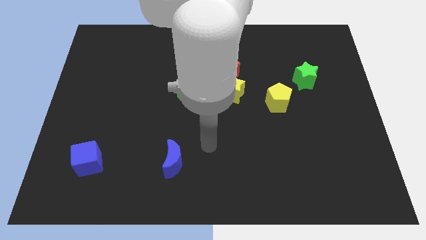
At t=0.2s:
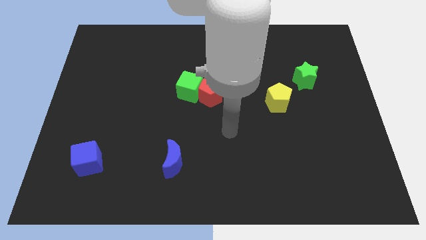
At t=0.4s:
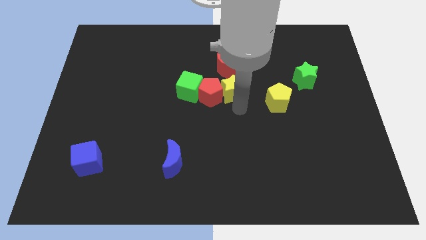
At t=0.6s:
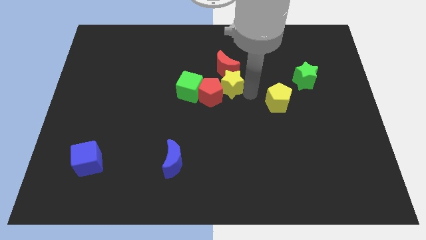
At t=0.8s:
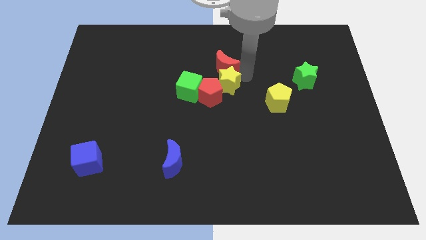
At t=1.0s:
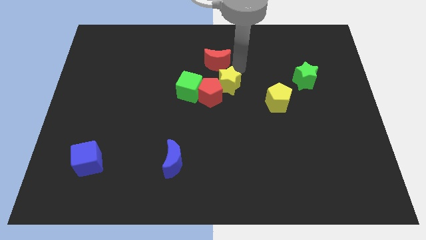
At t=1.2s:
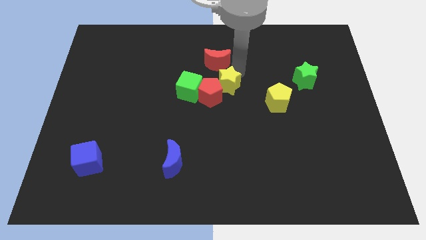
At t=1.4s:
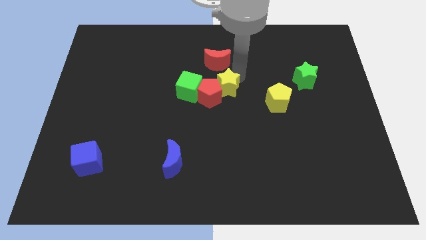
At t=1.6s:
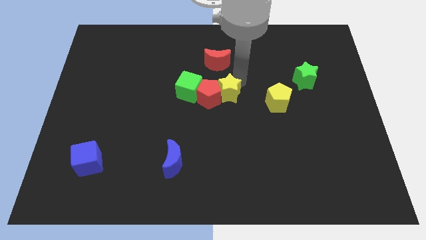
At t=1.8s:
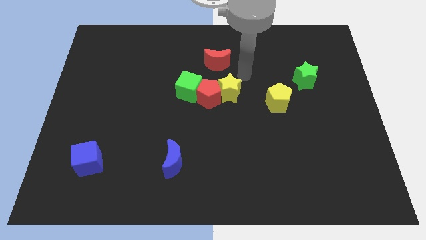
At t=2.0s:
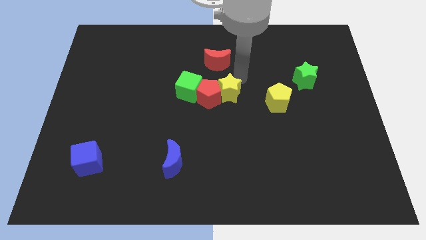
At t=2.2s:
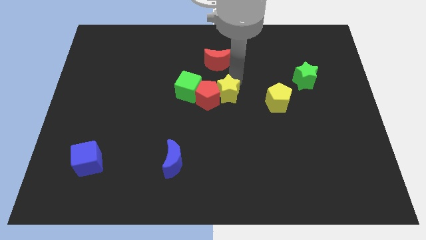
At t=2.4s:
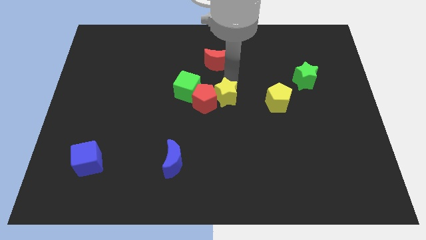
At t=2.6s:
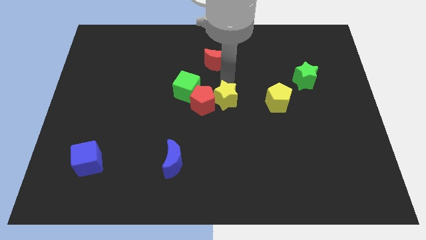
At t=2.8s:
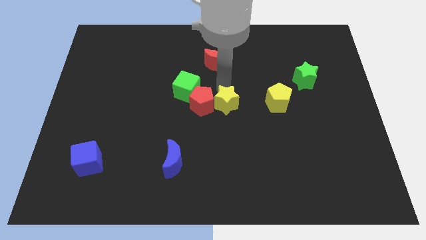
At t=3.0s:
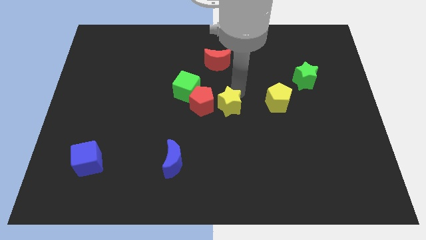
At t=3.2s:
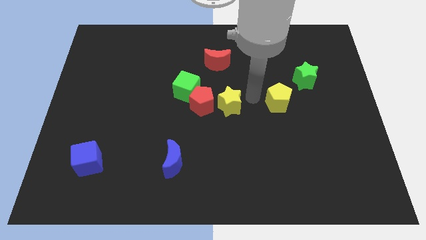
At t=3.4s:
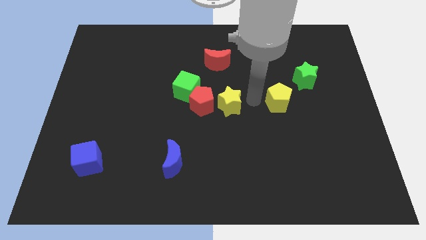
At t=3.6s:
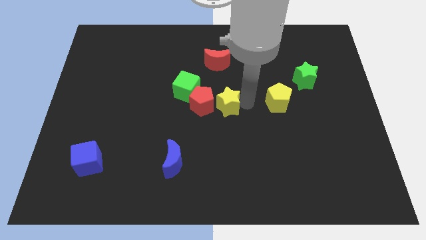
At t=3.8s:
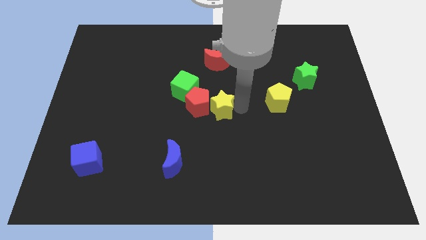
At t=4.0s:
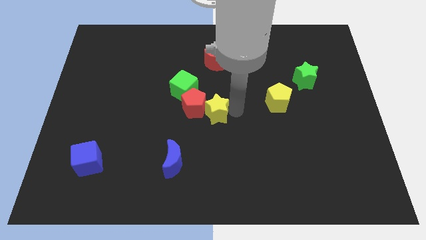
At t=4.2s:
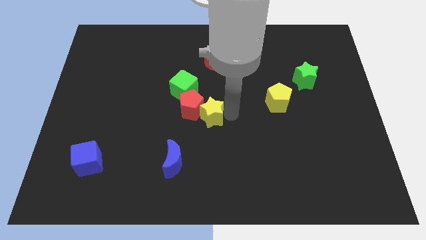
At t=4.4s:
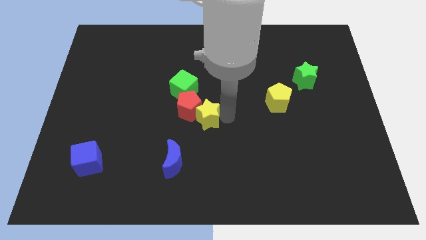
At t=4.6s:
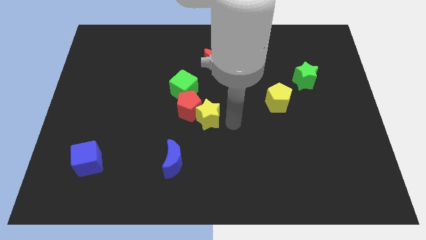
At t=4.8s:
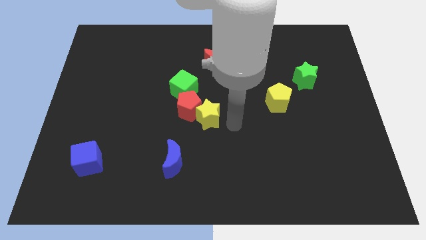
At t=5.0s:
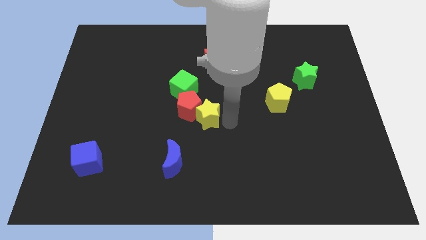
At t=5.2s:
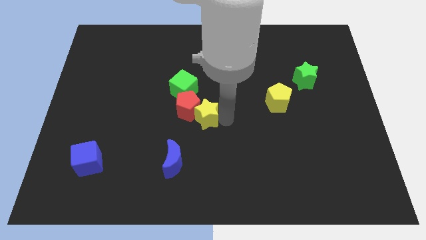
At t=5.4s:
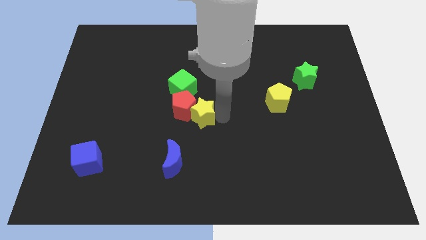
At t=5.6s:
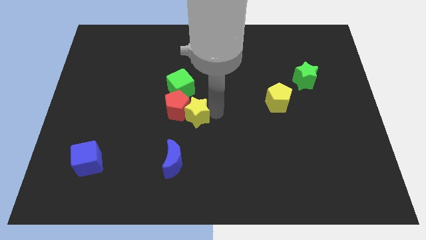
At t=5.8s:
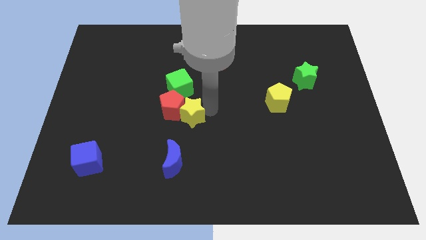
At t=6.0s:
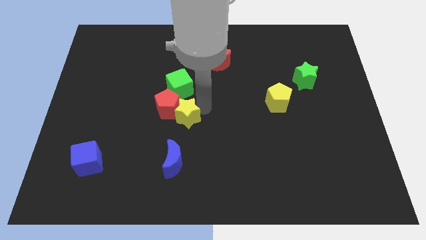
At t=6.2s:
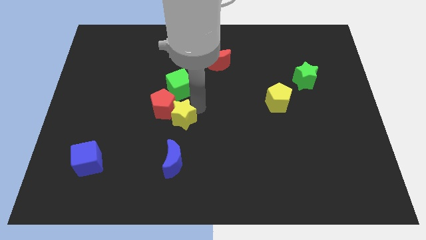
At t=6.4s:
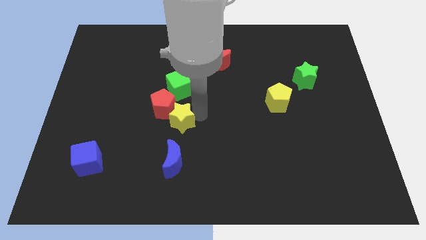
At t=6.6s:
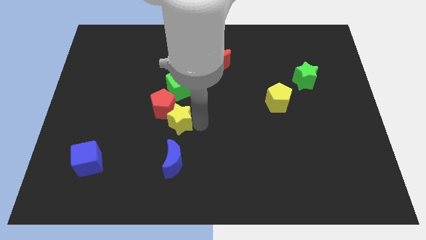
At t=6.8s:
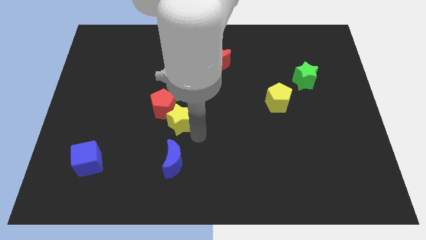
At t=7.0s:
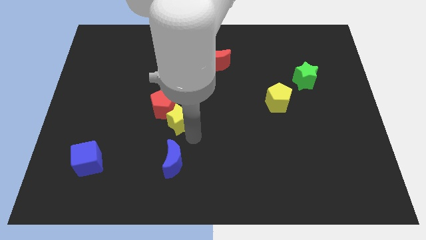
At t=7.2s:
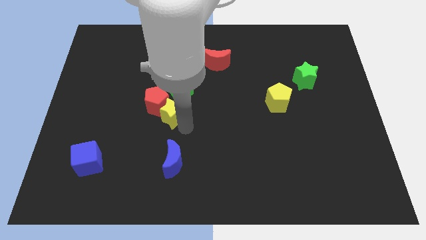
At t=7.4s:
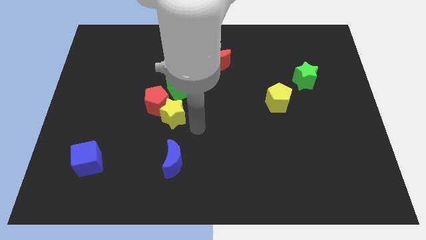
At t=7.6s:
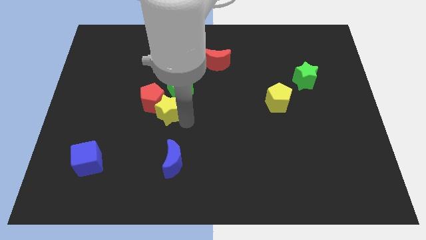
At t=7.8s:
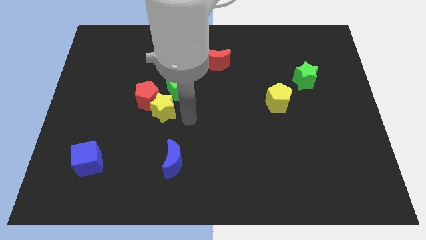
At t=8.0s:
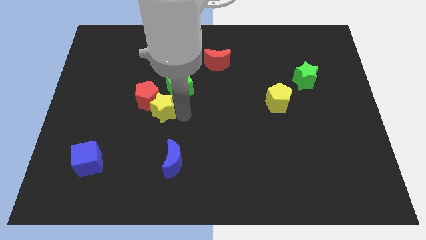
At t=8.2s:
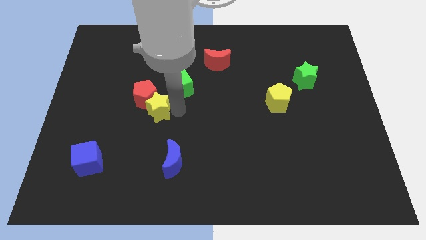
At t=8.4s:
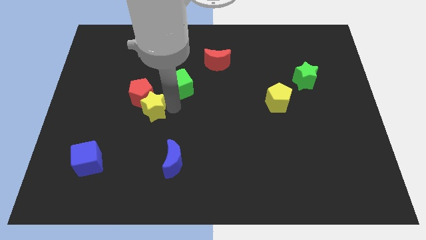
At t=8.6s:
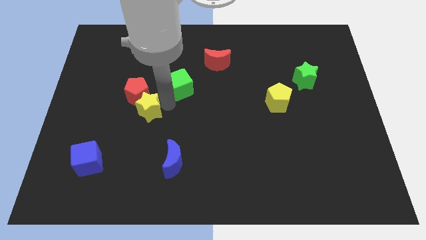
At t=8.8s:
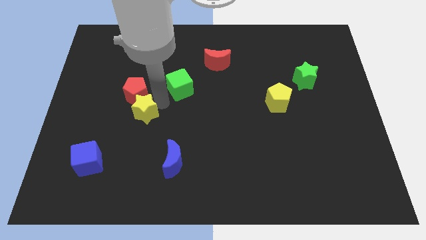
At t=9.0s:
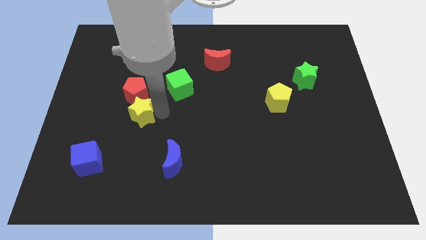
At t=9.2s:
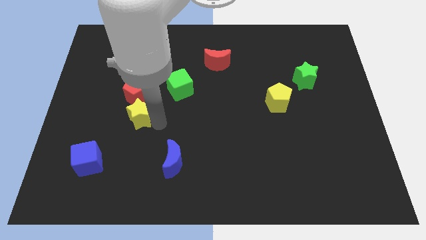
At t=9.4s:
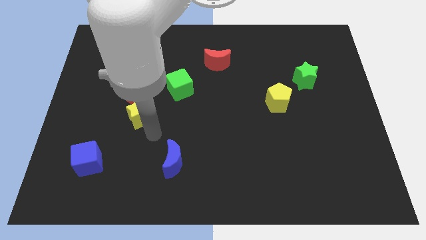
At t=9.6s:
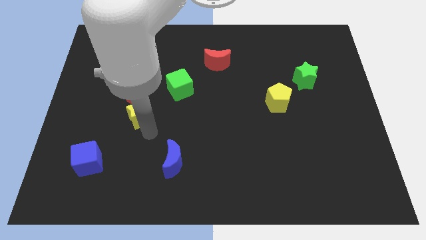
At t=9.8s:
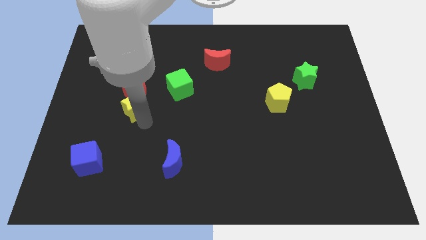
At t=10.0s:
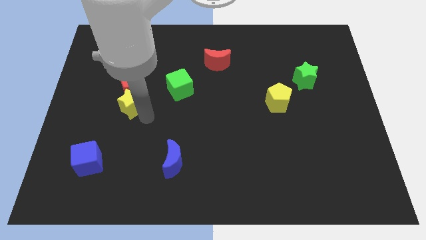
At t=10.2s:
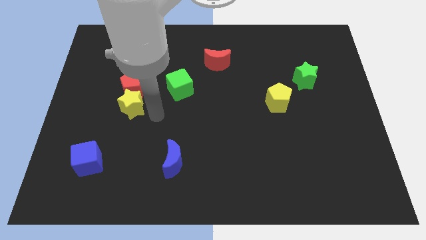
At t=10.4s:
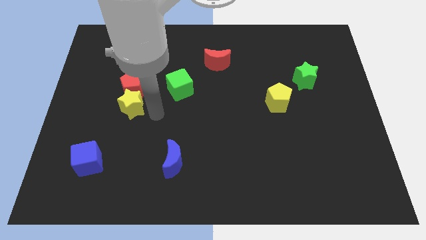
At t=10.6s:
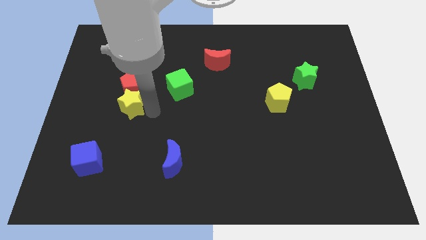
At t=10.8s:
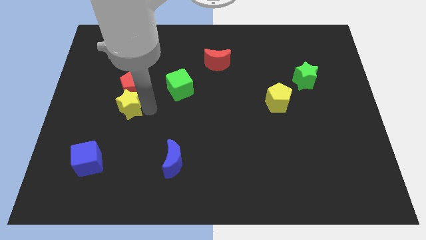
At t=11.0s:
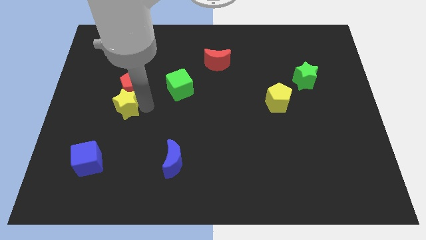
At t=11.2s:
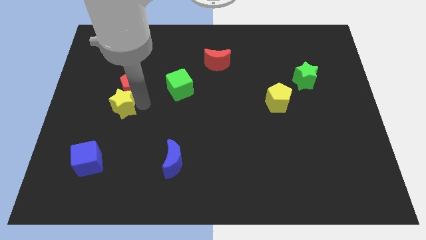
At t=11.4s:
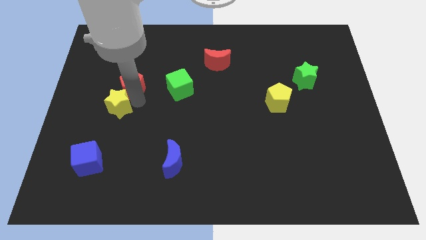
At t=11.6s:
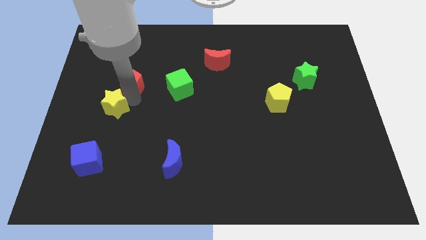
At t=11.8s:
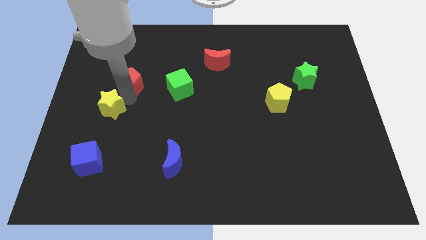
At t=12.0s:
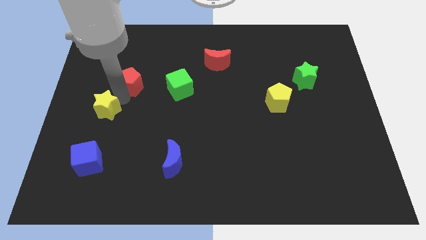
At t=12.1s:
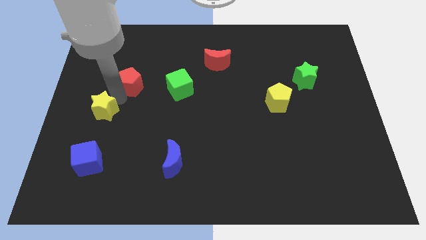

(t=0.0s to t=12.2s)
push the yellow star to the center left
